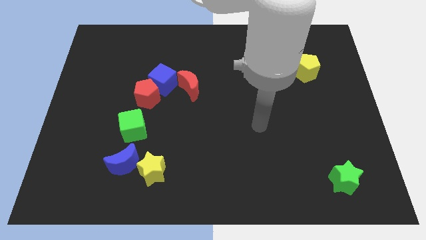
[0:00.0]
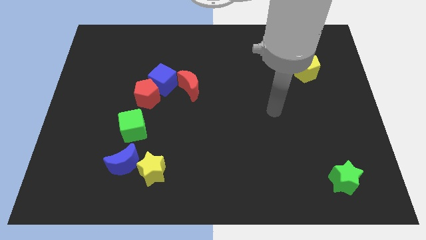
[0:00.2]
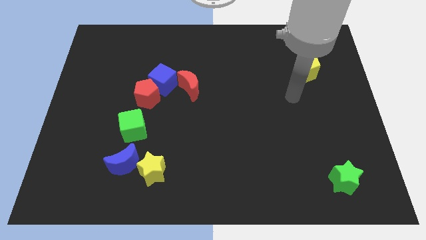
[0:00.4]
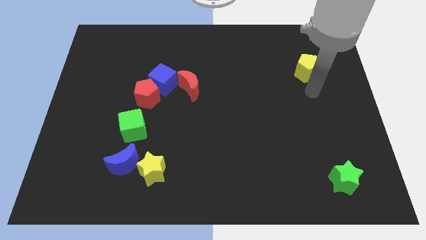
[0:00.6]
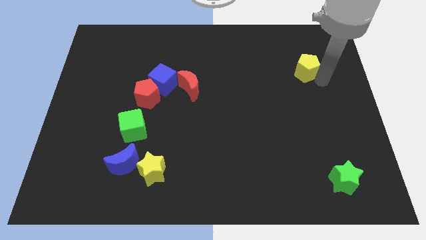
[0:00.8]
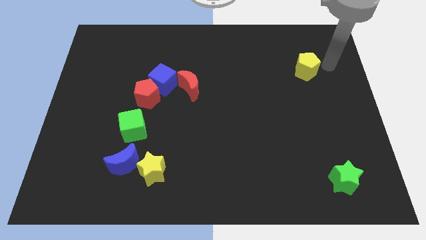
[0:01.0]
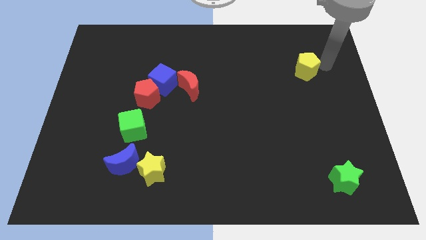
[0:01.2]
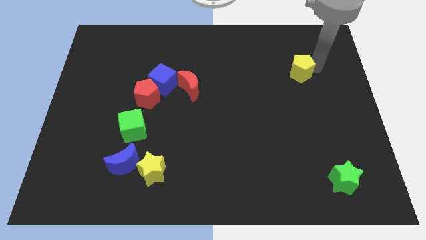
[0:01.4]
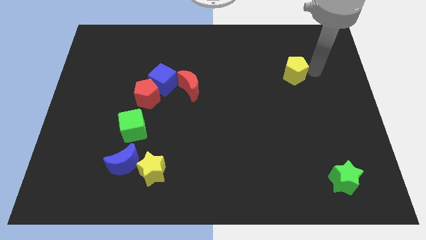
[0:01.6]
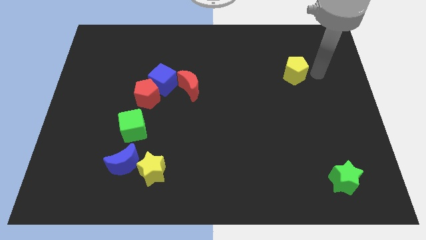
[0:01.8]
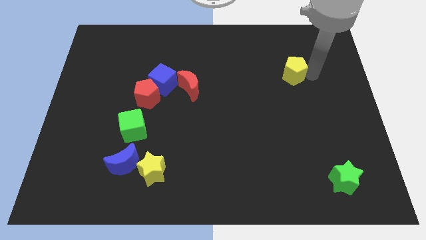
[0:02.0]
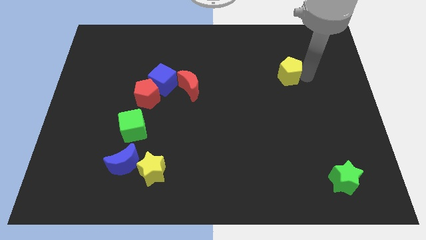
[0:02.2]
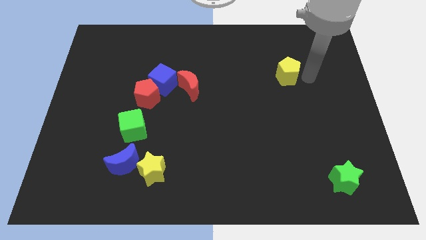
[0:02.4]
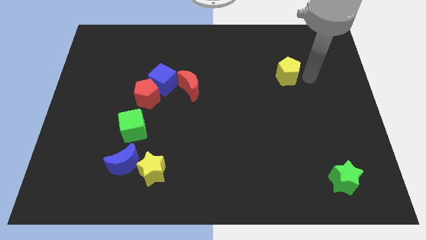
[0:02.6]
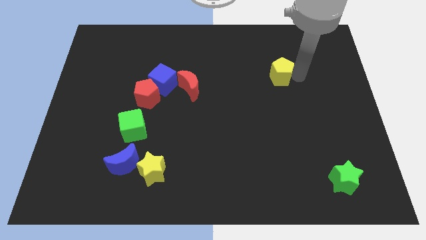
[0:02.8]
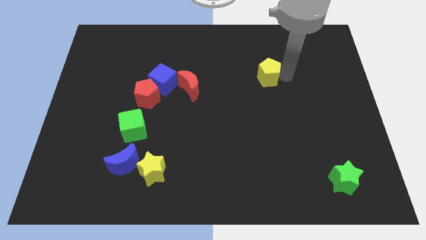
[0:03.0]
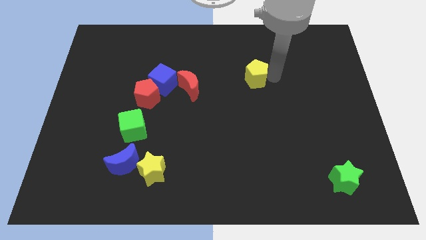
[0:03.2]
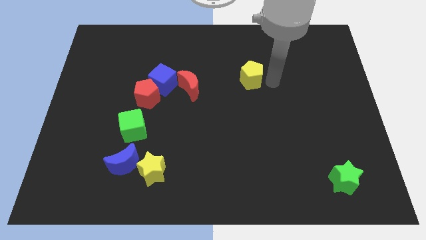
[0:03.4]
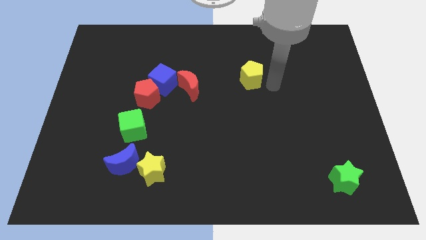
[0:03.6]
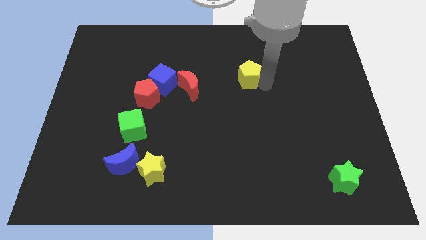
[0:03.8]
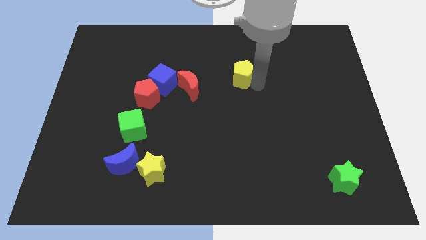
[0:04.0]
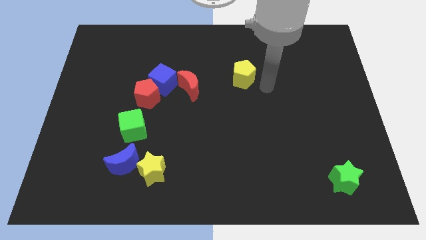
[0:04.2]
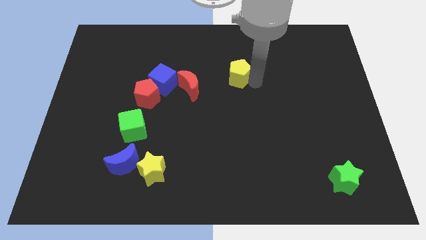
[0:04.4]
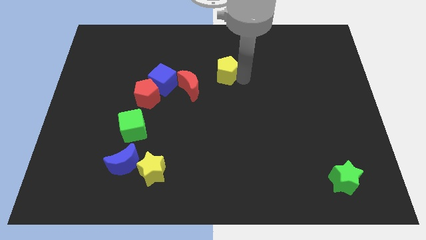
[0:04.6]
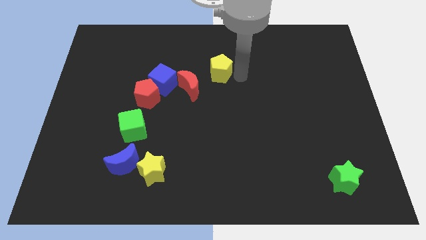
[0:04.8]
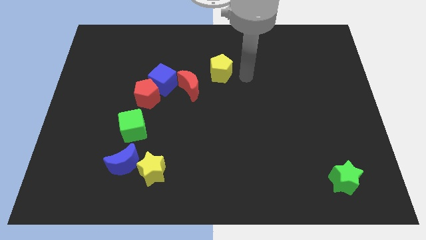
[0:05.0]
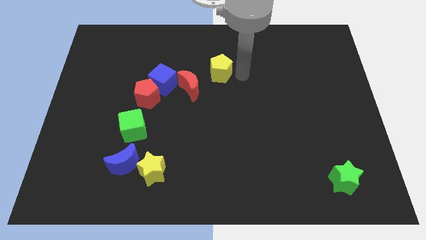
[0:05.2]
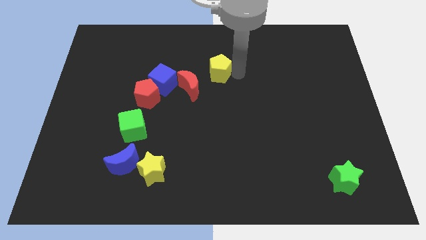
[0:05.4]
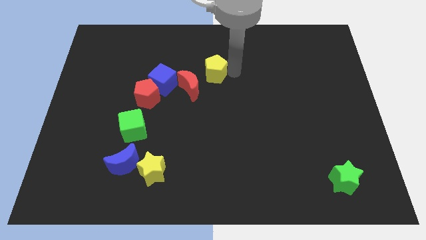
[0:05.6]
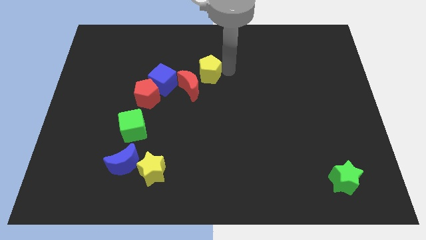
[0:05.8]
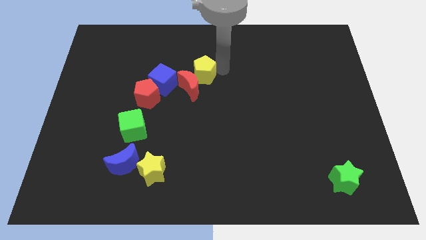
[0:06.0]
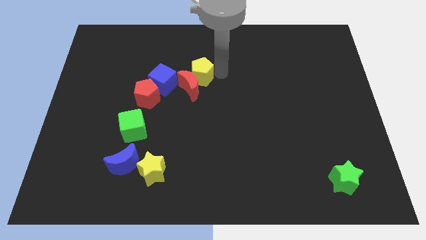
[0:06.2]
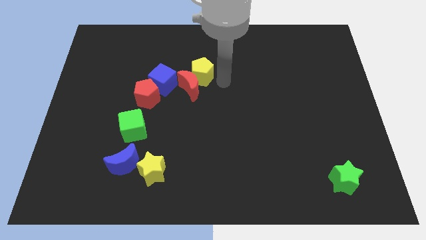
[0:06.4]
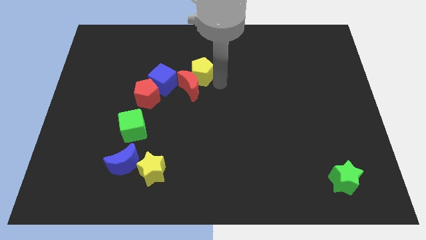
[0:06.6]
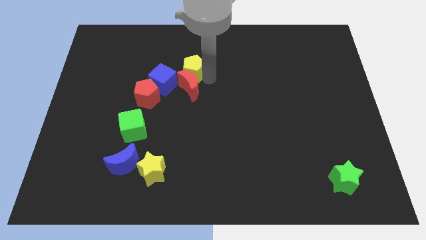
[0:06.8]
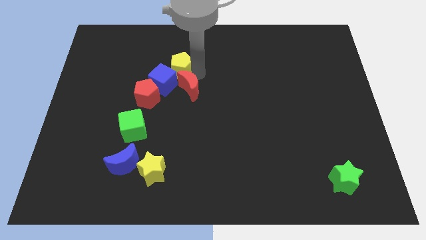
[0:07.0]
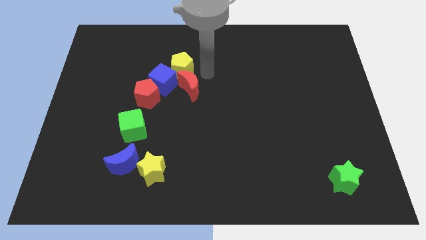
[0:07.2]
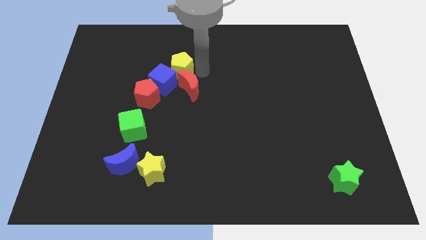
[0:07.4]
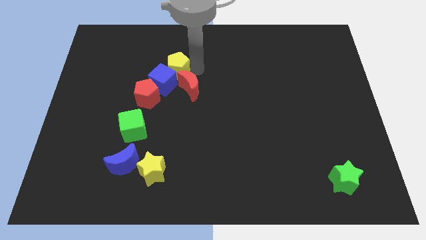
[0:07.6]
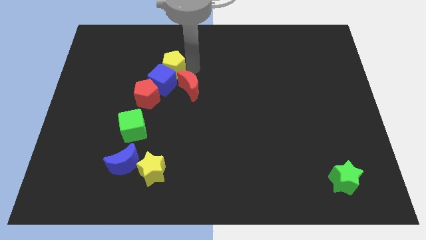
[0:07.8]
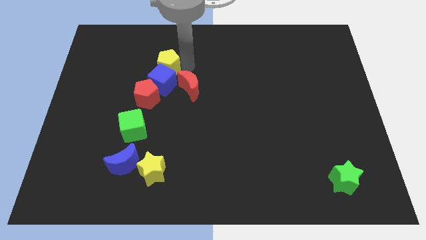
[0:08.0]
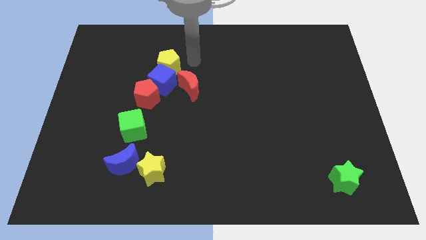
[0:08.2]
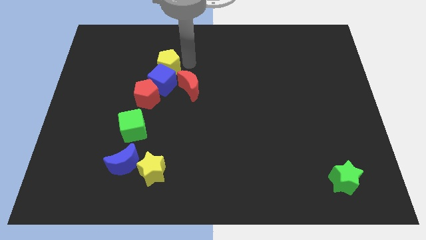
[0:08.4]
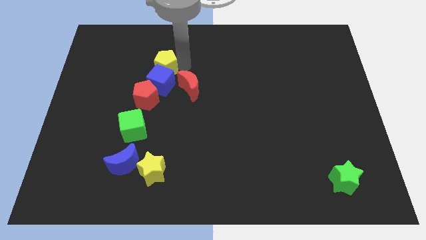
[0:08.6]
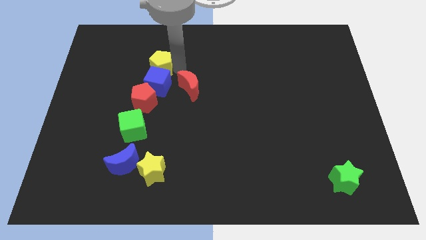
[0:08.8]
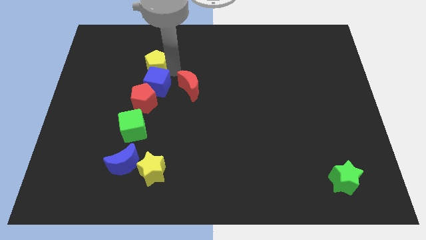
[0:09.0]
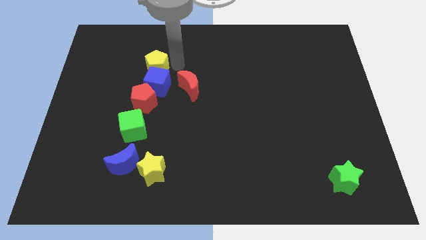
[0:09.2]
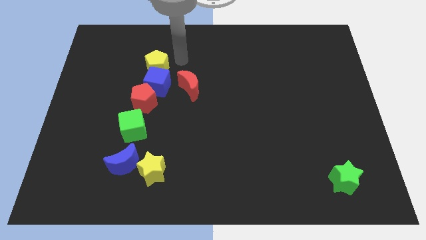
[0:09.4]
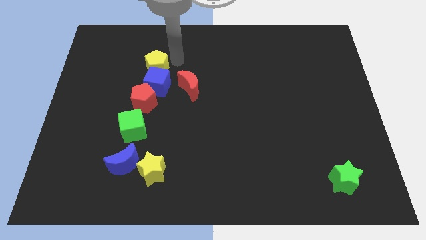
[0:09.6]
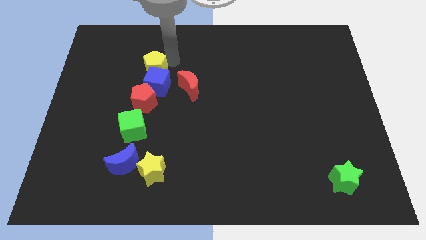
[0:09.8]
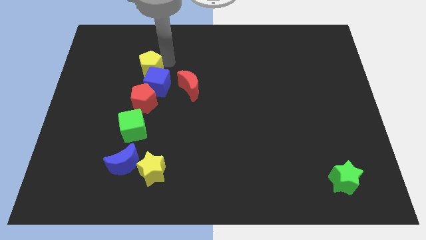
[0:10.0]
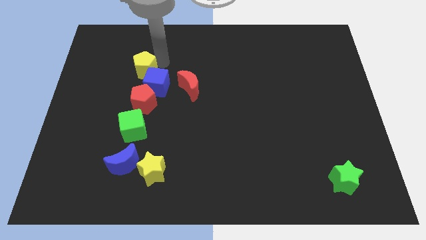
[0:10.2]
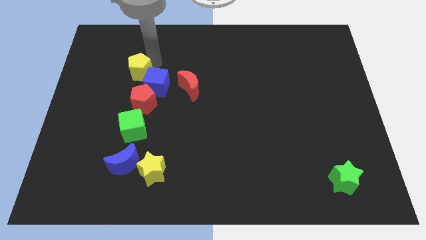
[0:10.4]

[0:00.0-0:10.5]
slide the yellow pentagon left of the blue cube
